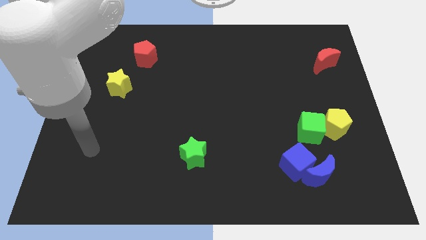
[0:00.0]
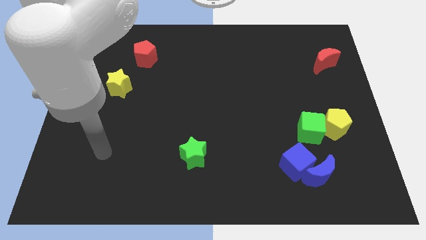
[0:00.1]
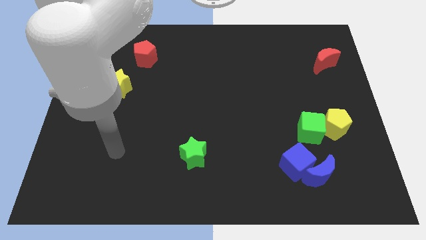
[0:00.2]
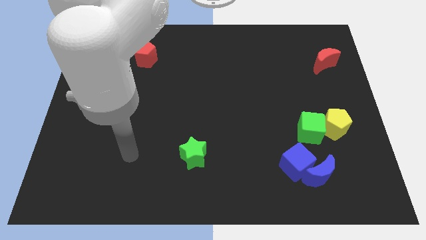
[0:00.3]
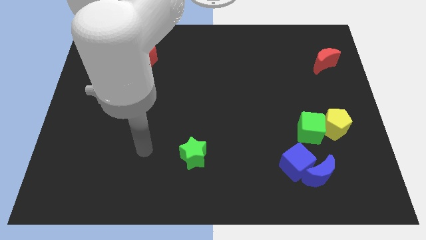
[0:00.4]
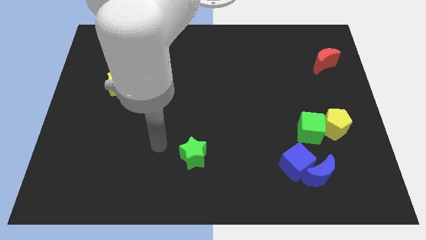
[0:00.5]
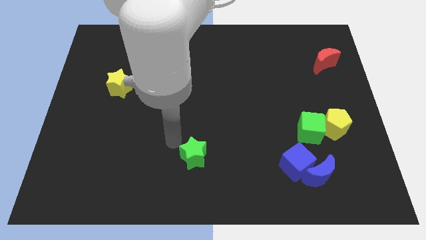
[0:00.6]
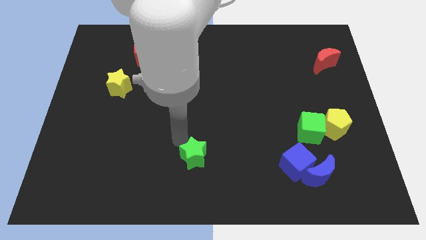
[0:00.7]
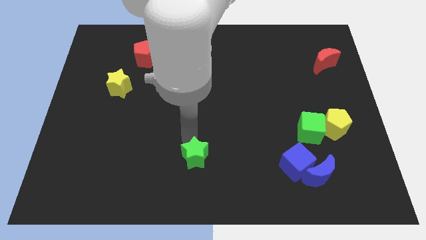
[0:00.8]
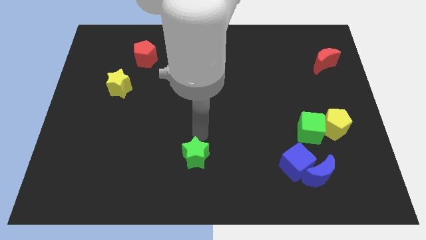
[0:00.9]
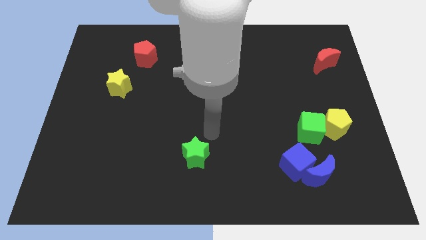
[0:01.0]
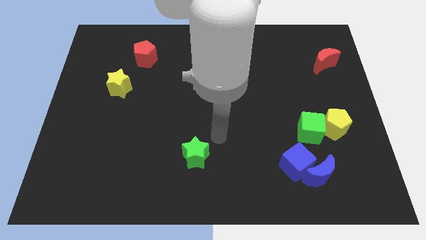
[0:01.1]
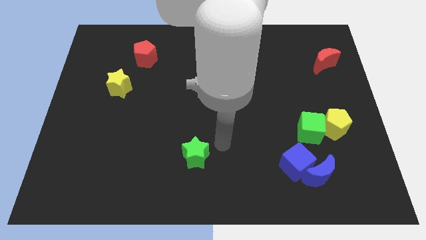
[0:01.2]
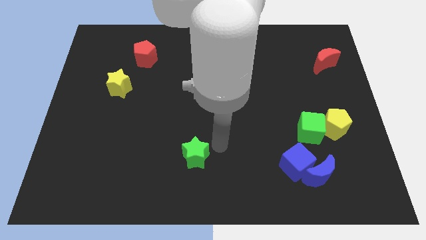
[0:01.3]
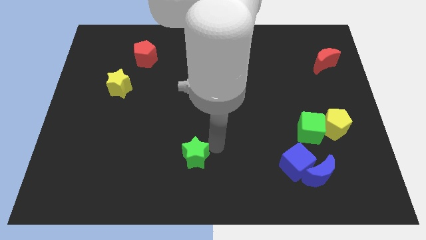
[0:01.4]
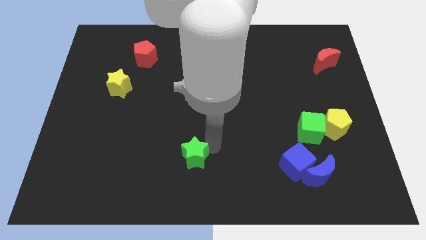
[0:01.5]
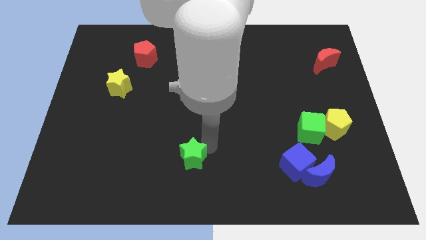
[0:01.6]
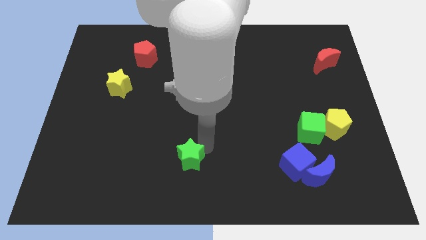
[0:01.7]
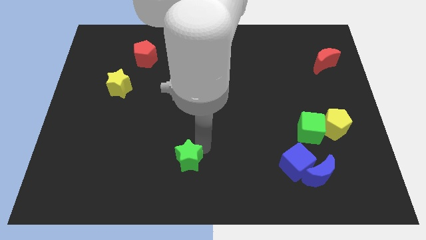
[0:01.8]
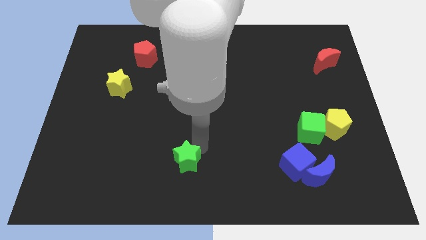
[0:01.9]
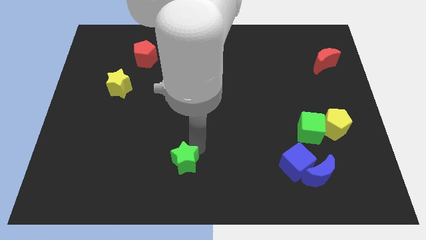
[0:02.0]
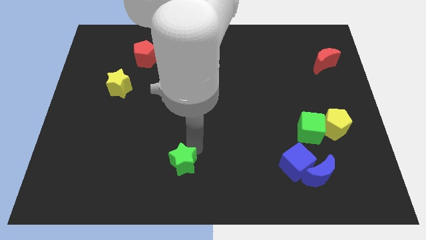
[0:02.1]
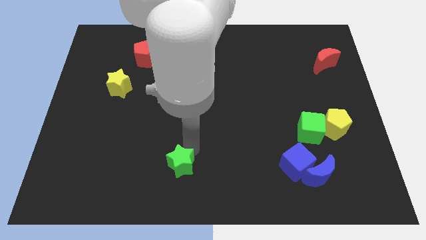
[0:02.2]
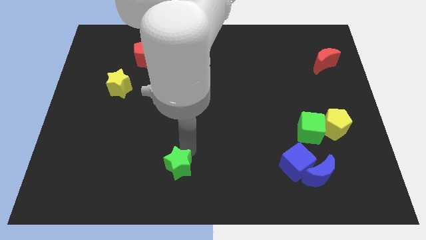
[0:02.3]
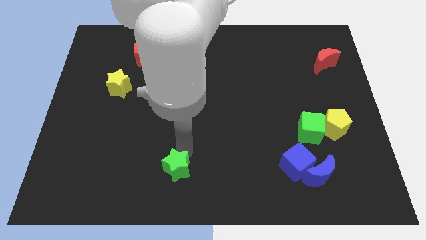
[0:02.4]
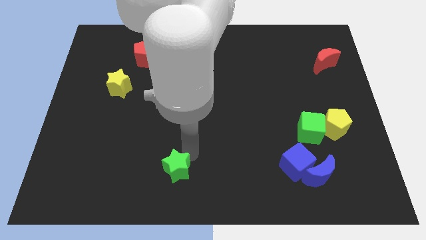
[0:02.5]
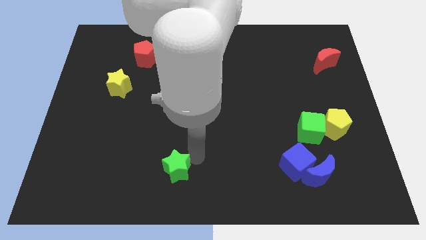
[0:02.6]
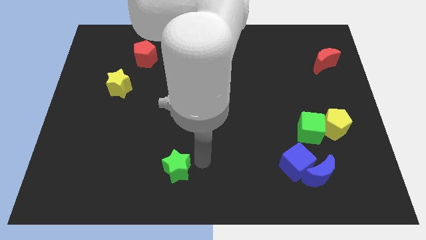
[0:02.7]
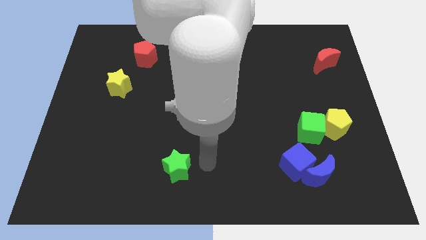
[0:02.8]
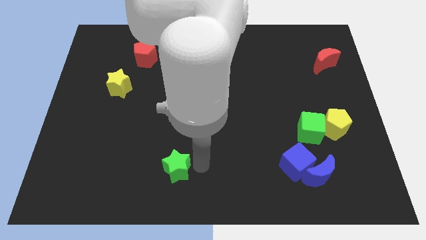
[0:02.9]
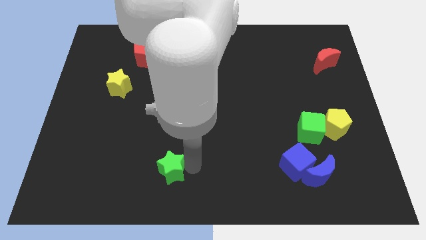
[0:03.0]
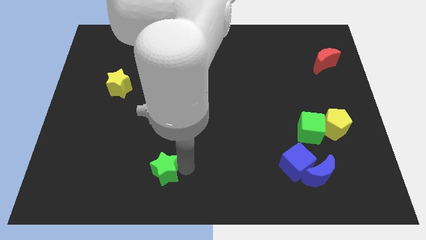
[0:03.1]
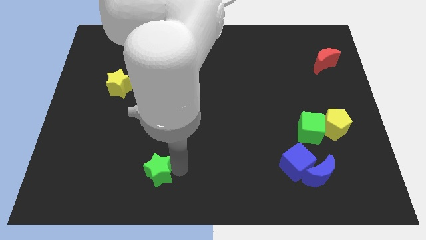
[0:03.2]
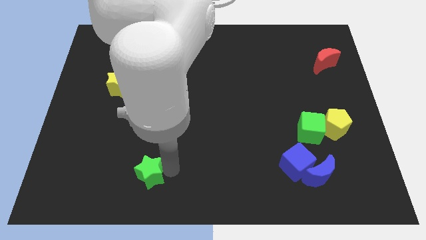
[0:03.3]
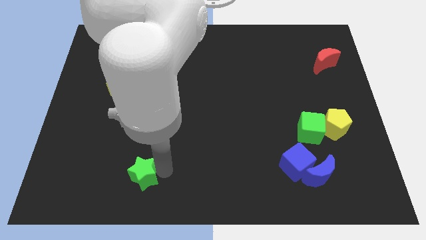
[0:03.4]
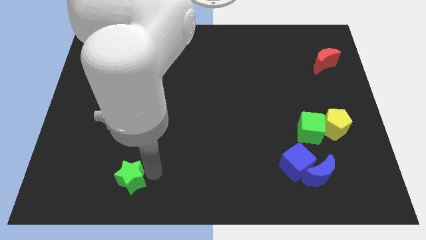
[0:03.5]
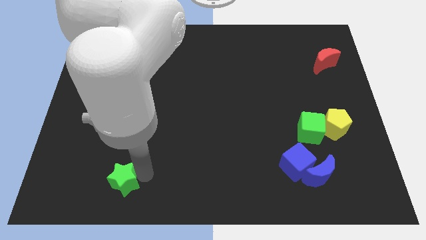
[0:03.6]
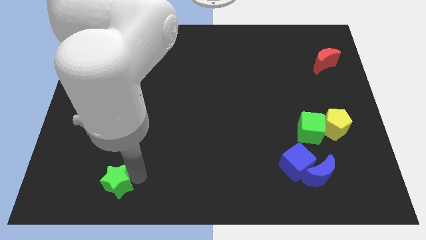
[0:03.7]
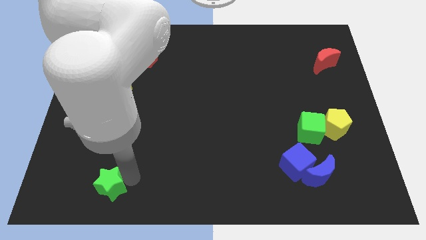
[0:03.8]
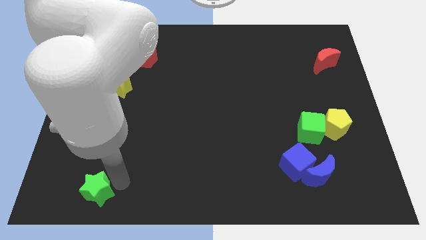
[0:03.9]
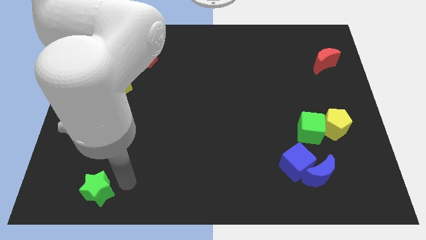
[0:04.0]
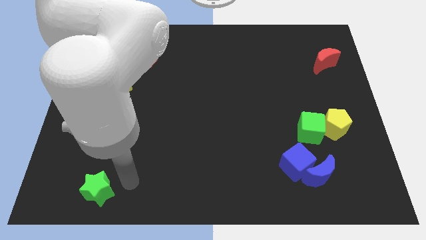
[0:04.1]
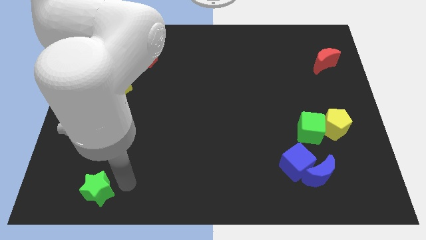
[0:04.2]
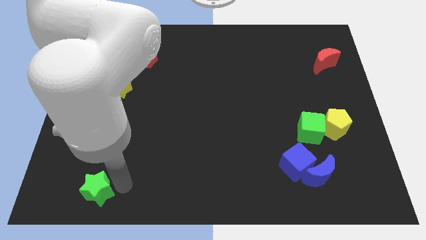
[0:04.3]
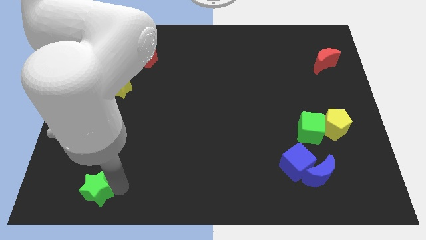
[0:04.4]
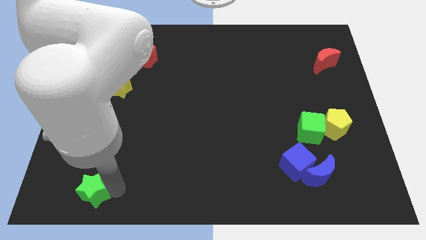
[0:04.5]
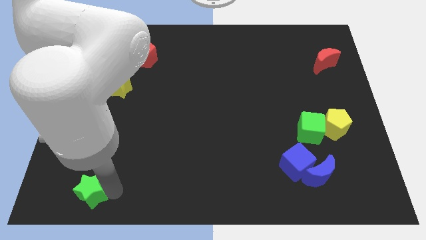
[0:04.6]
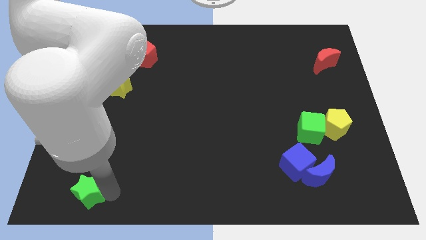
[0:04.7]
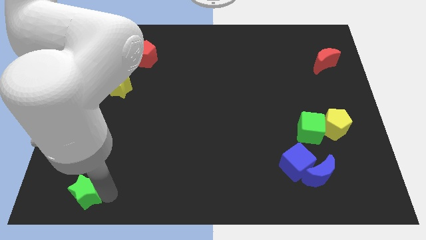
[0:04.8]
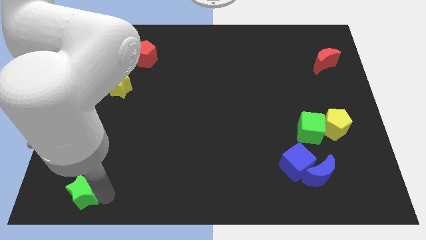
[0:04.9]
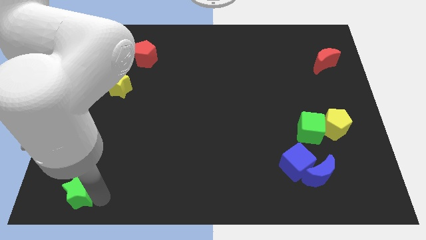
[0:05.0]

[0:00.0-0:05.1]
move the green star to the bottom left corner

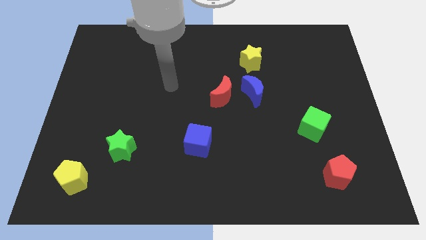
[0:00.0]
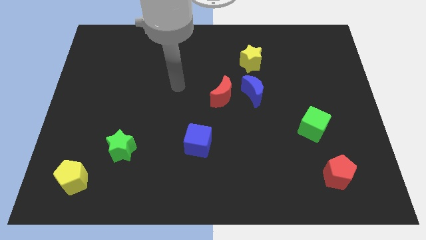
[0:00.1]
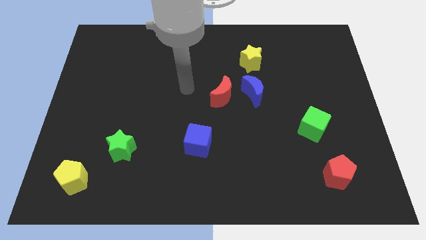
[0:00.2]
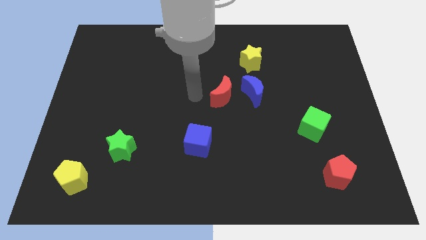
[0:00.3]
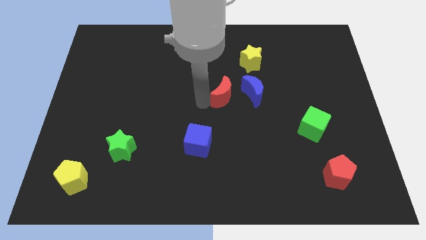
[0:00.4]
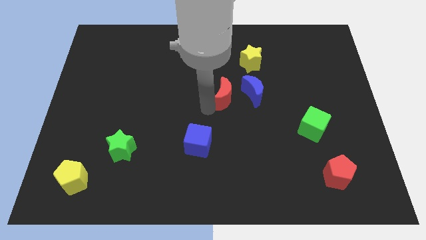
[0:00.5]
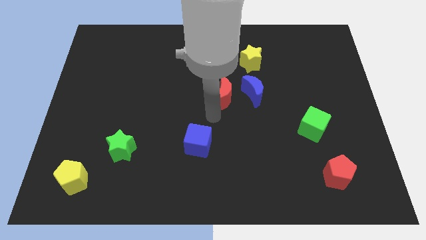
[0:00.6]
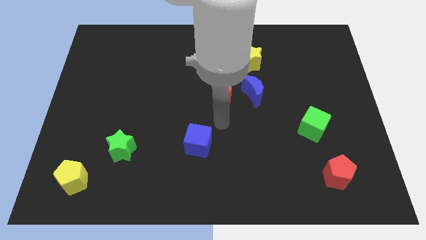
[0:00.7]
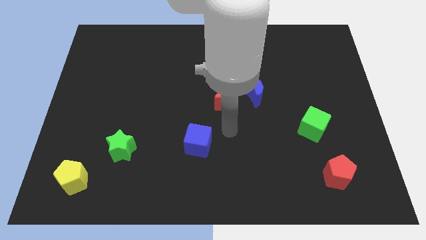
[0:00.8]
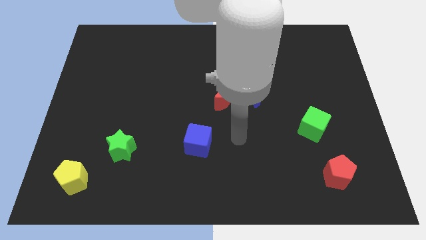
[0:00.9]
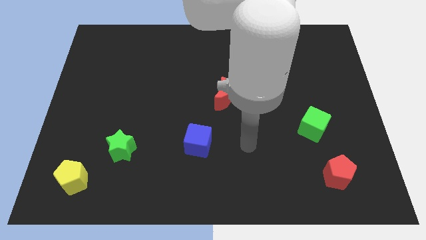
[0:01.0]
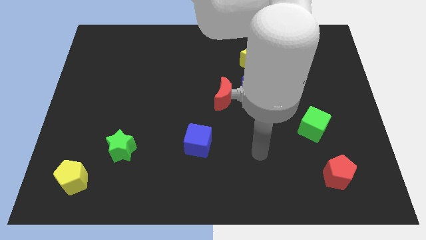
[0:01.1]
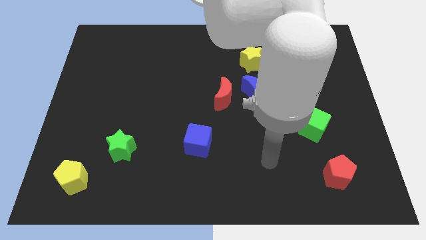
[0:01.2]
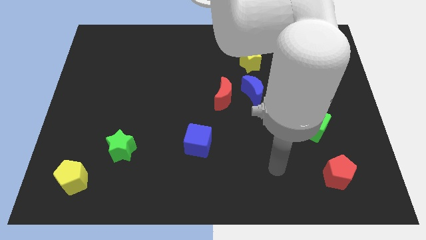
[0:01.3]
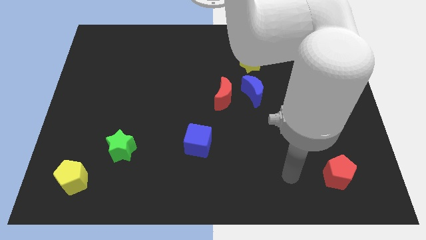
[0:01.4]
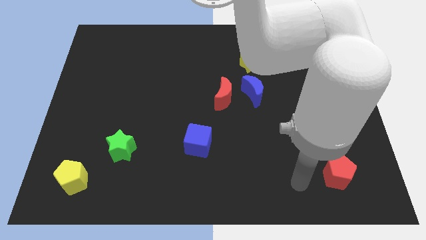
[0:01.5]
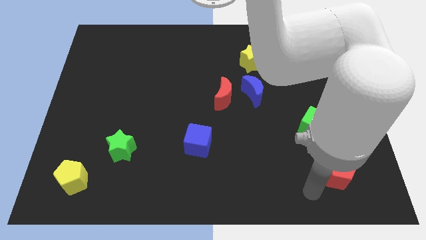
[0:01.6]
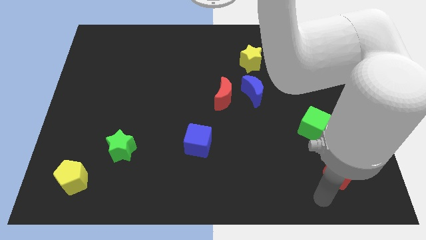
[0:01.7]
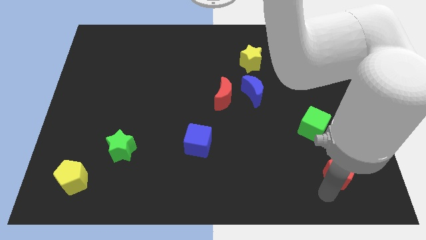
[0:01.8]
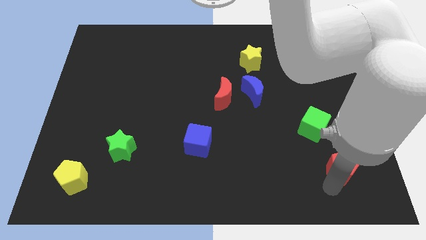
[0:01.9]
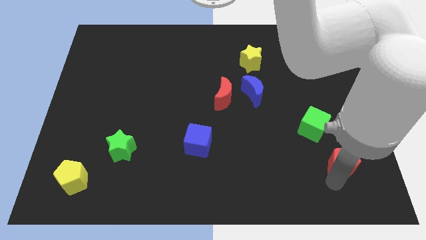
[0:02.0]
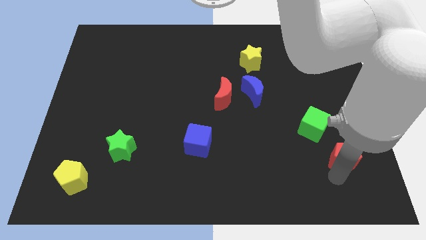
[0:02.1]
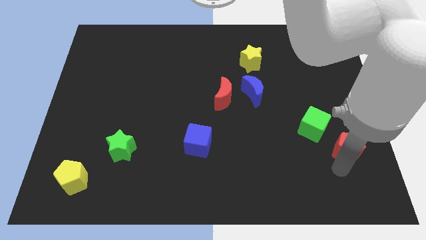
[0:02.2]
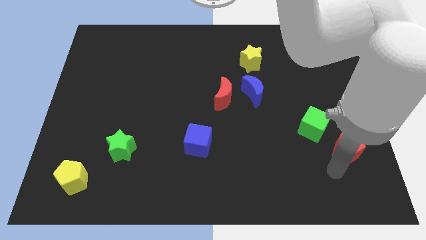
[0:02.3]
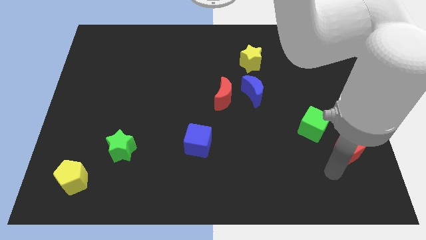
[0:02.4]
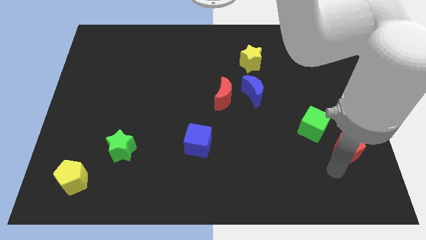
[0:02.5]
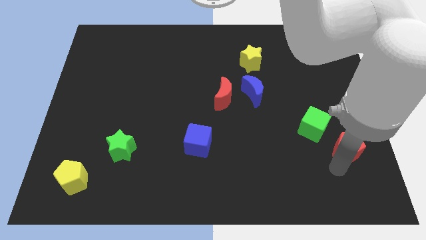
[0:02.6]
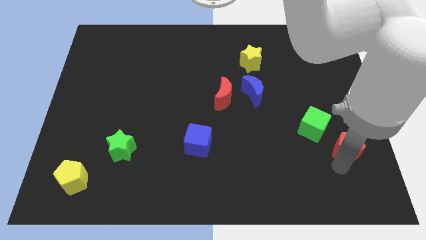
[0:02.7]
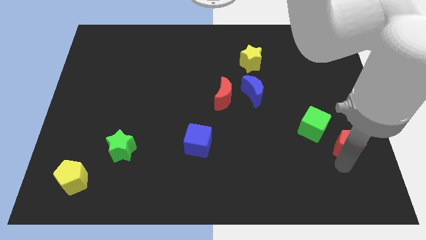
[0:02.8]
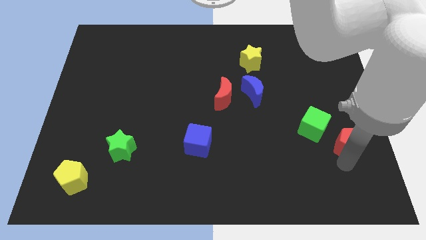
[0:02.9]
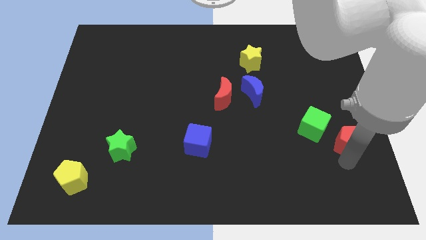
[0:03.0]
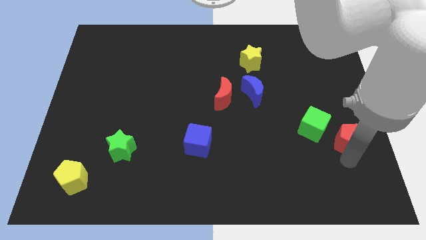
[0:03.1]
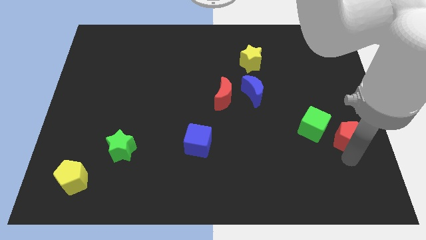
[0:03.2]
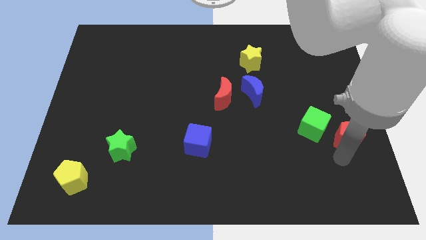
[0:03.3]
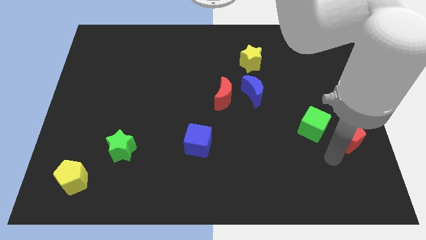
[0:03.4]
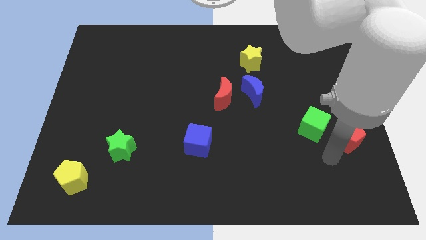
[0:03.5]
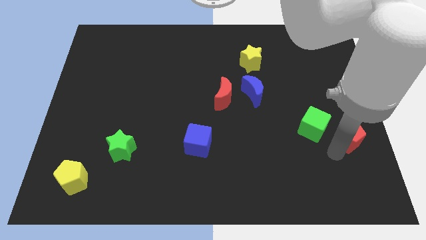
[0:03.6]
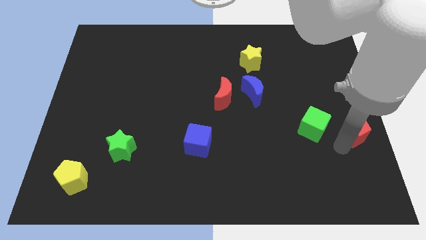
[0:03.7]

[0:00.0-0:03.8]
move the red pentagon to the right side of the board
